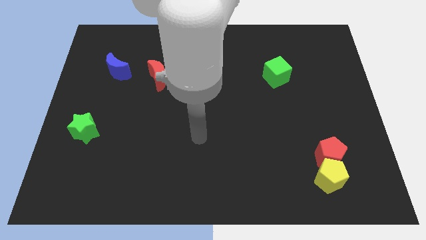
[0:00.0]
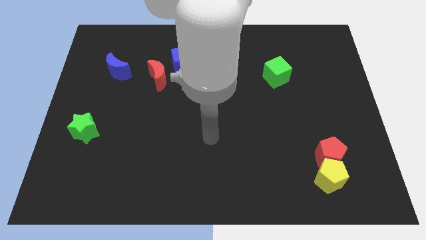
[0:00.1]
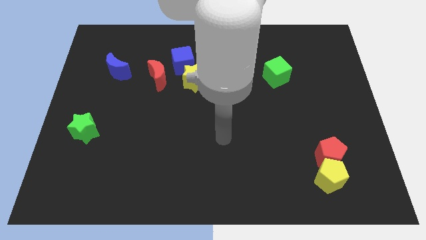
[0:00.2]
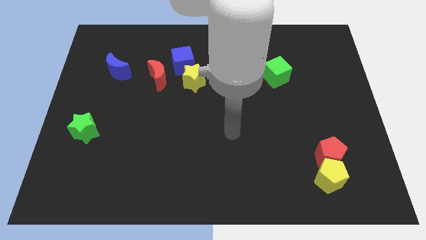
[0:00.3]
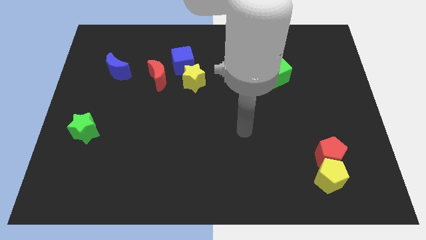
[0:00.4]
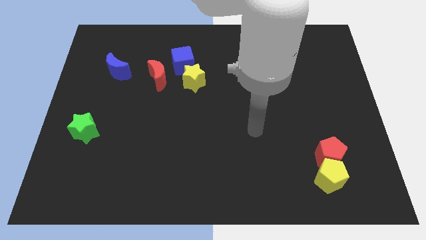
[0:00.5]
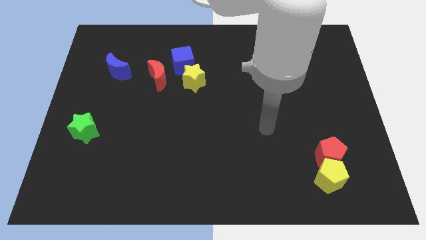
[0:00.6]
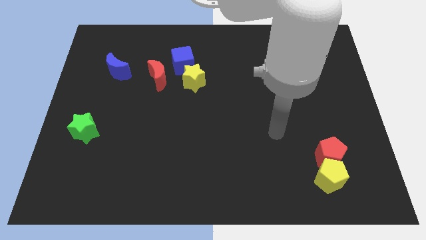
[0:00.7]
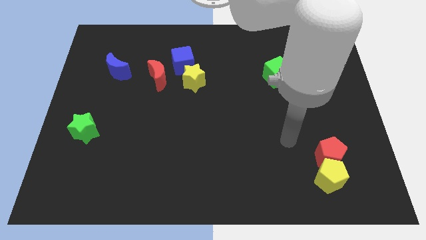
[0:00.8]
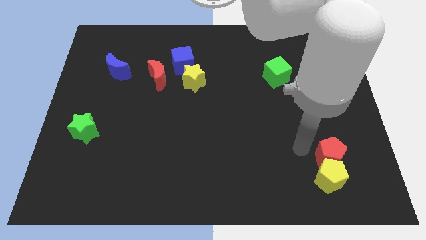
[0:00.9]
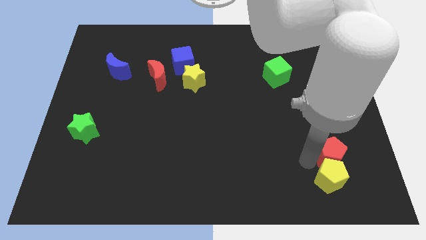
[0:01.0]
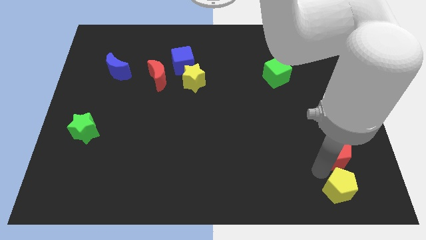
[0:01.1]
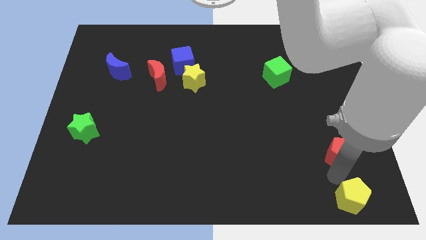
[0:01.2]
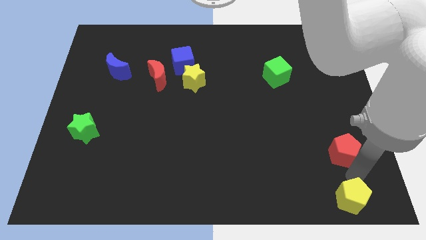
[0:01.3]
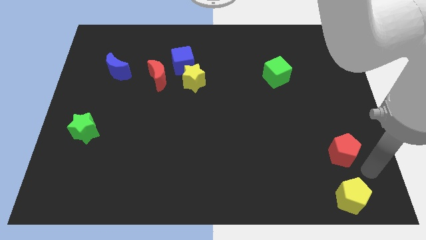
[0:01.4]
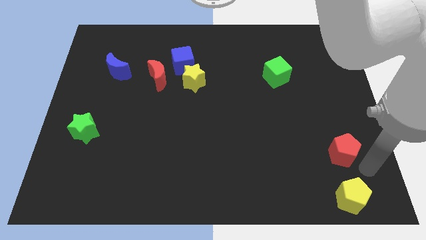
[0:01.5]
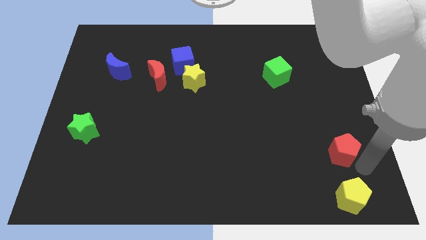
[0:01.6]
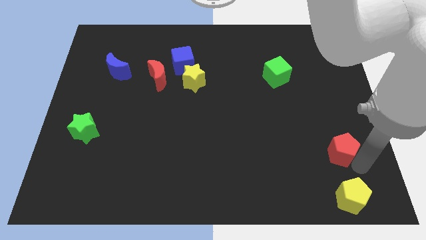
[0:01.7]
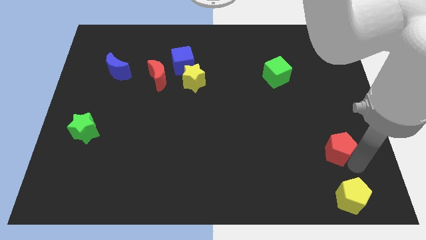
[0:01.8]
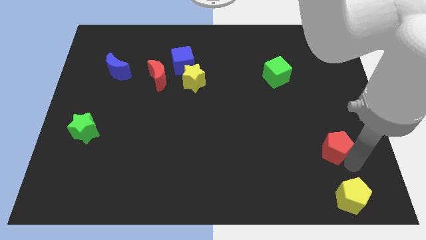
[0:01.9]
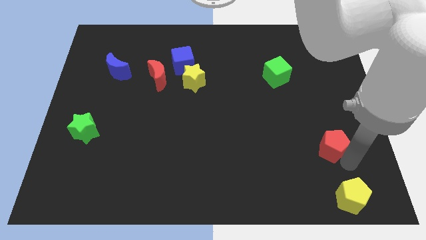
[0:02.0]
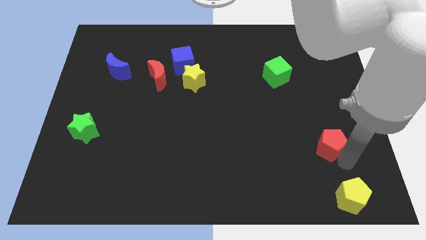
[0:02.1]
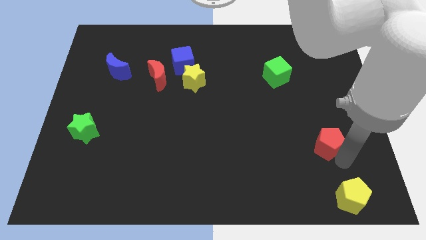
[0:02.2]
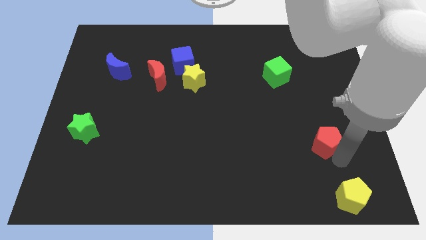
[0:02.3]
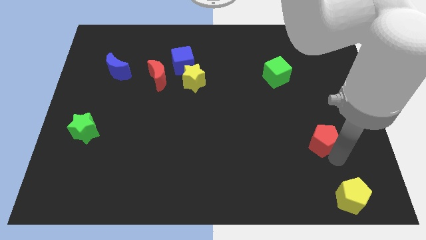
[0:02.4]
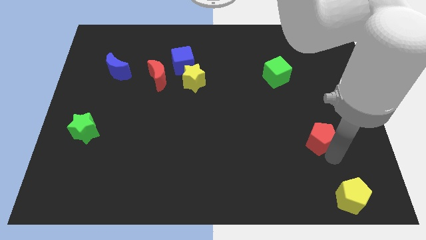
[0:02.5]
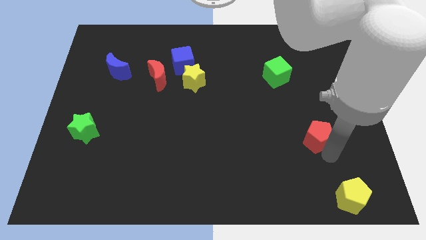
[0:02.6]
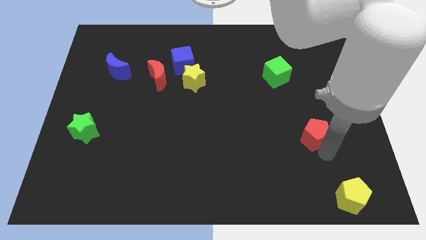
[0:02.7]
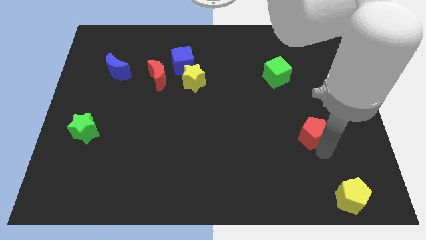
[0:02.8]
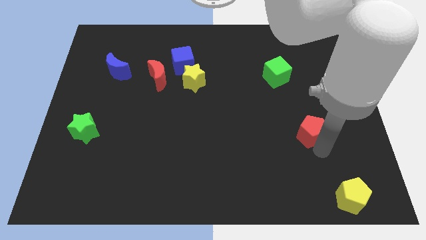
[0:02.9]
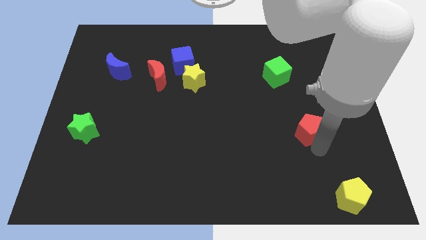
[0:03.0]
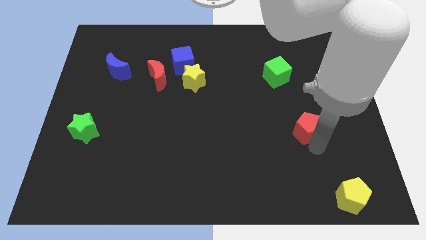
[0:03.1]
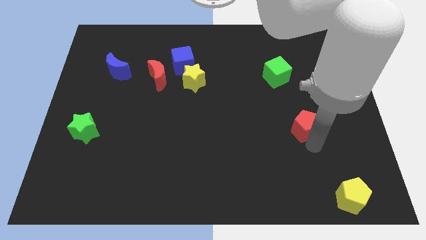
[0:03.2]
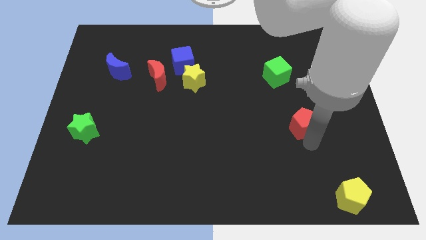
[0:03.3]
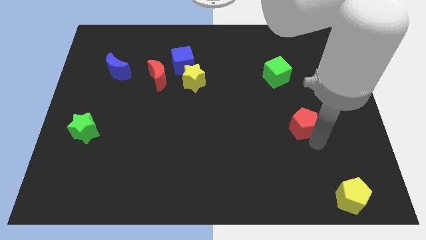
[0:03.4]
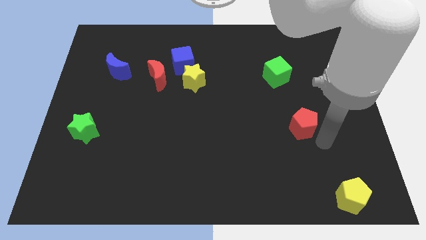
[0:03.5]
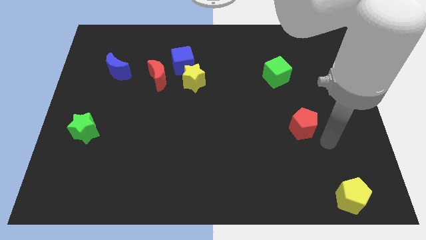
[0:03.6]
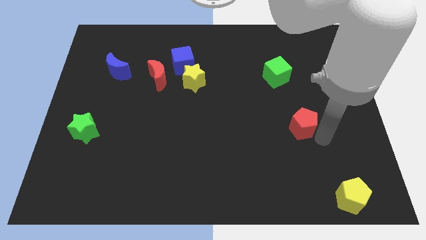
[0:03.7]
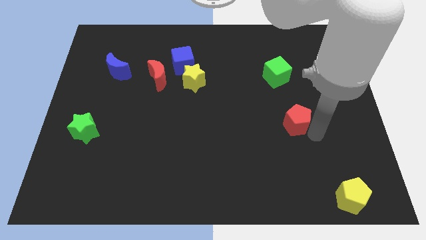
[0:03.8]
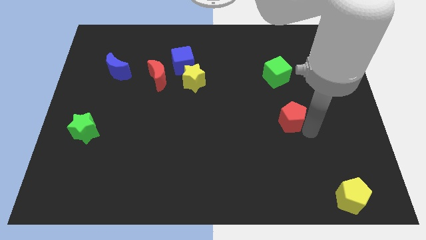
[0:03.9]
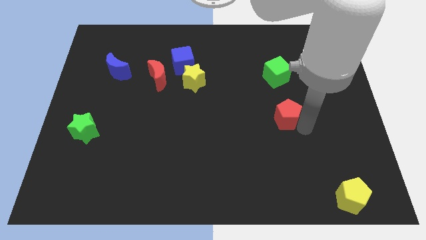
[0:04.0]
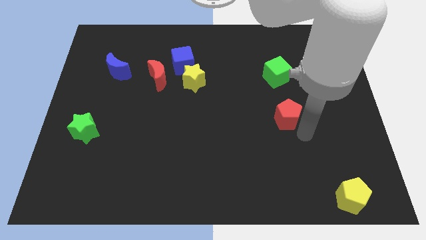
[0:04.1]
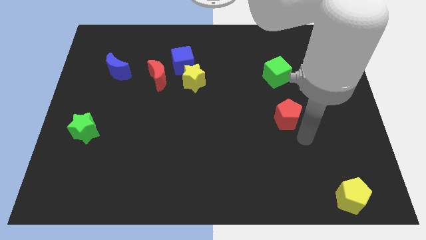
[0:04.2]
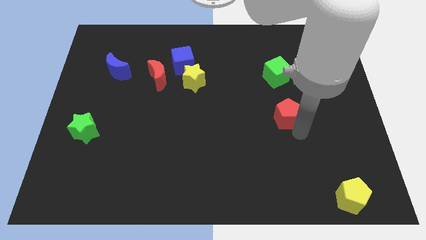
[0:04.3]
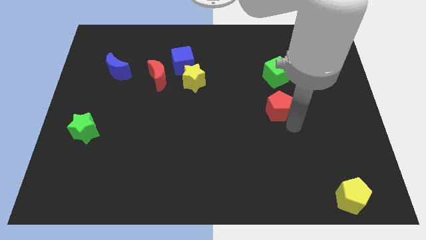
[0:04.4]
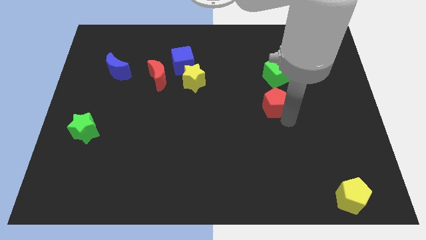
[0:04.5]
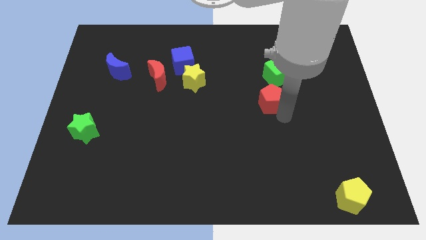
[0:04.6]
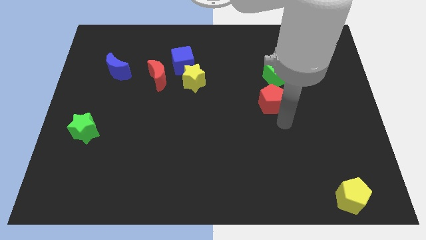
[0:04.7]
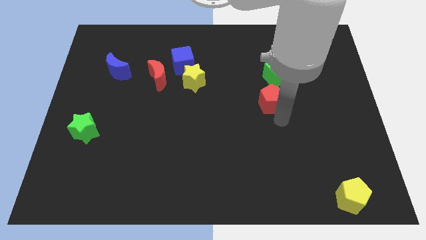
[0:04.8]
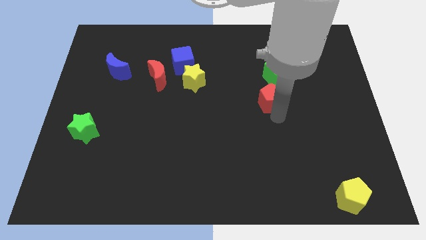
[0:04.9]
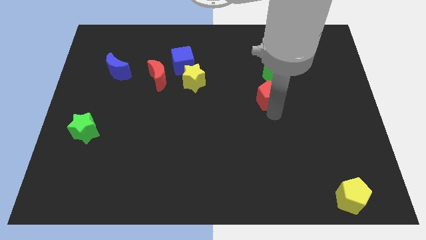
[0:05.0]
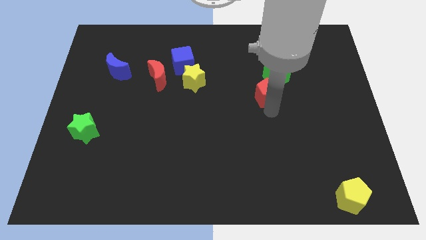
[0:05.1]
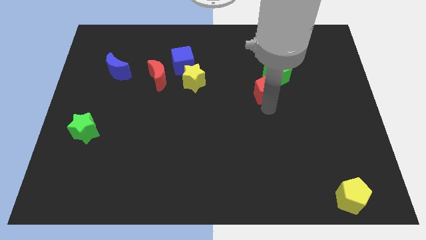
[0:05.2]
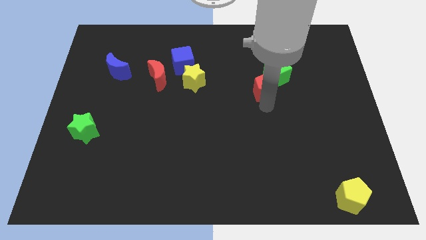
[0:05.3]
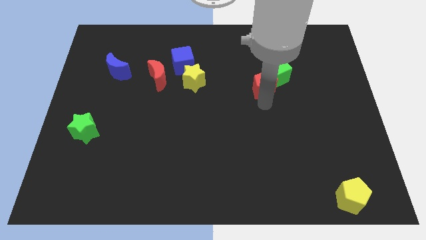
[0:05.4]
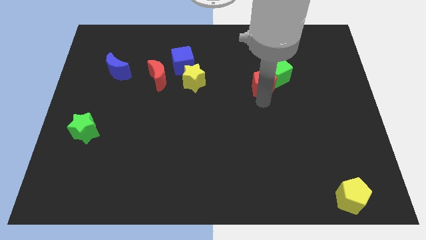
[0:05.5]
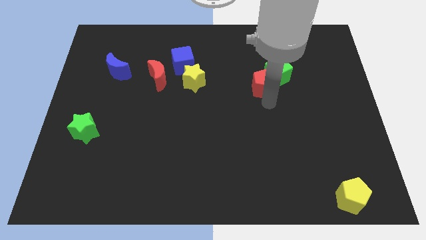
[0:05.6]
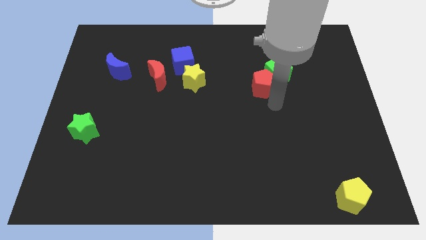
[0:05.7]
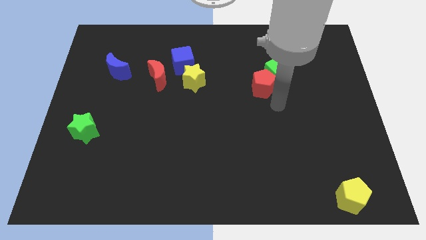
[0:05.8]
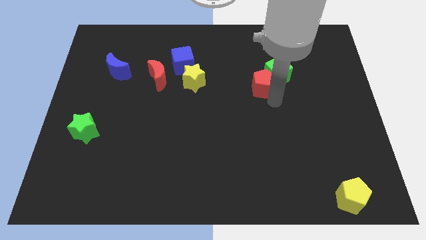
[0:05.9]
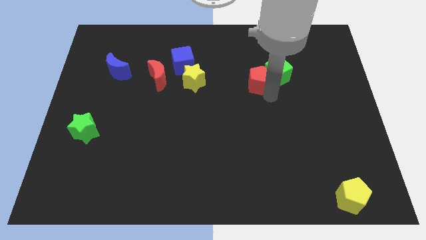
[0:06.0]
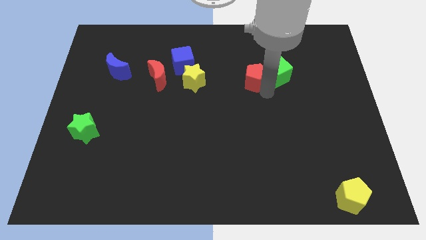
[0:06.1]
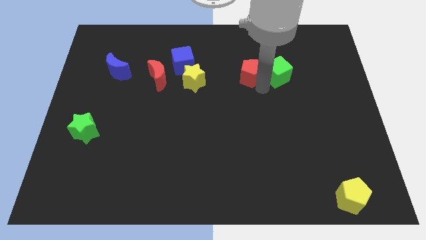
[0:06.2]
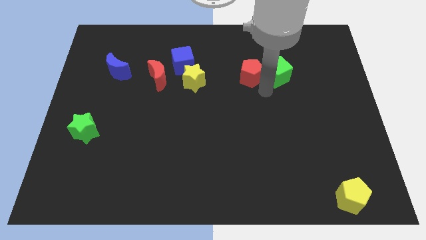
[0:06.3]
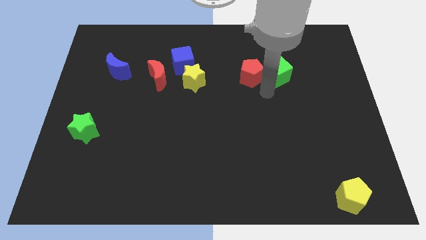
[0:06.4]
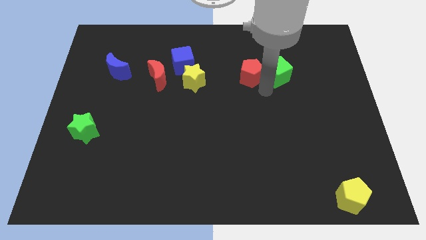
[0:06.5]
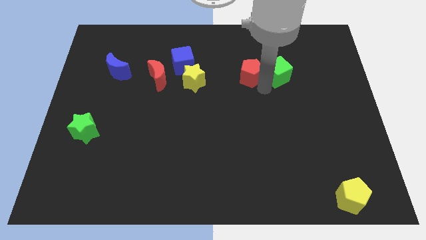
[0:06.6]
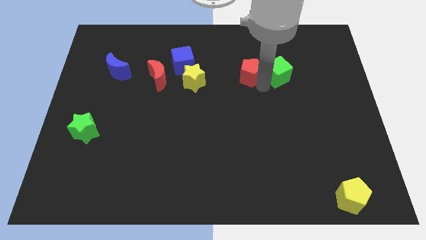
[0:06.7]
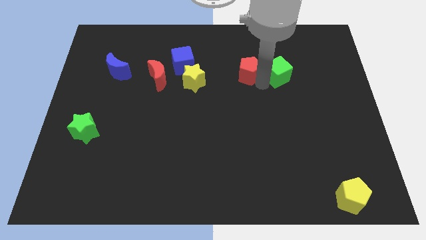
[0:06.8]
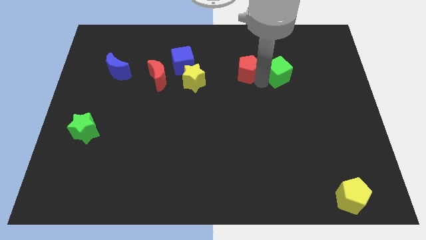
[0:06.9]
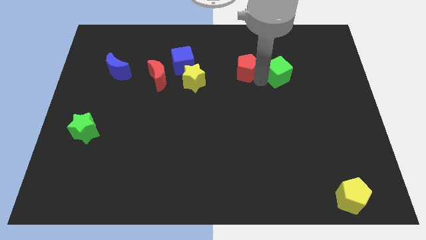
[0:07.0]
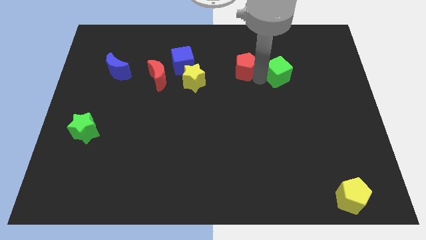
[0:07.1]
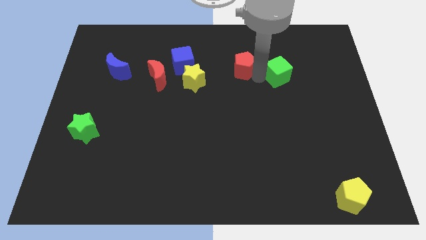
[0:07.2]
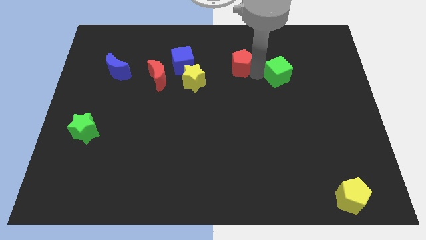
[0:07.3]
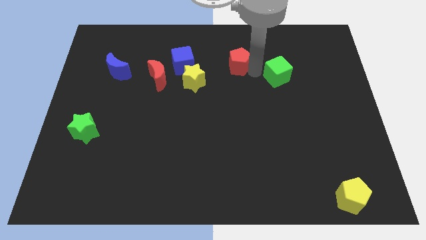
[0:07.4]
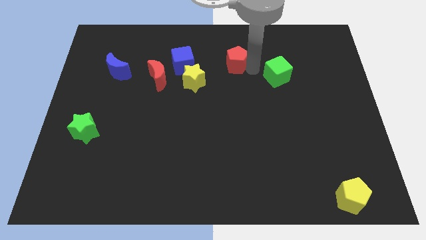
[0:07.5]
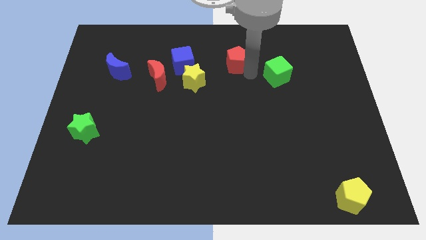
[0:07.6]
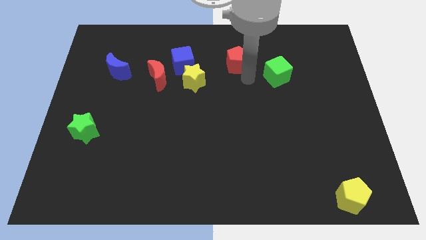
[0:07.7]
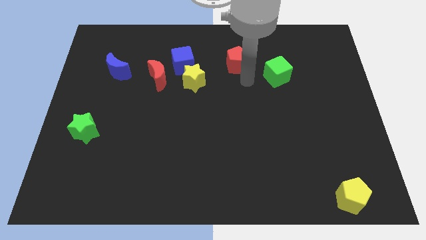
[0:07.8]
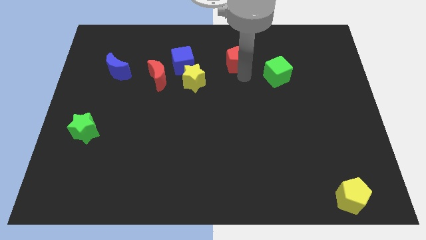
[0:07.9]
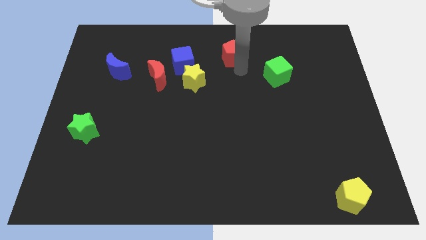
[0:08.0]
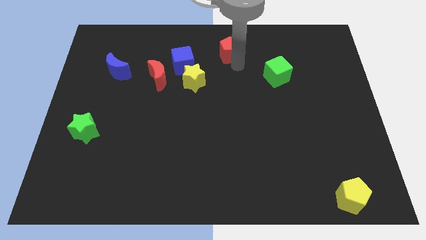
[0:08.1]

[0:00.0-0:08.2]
move the red pentagon to the top
